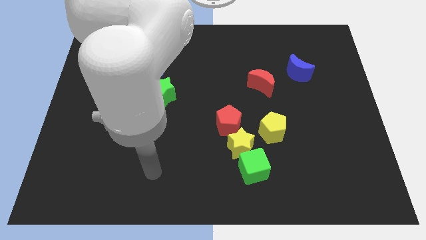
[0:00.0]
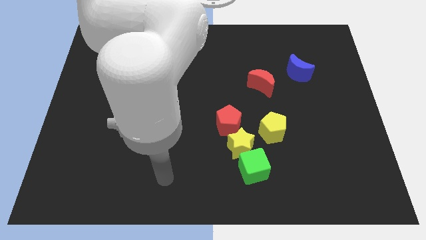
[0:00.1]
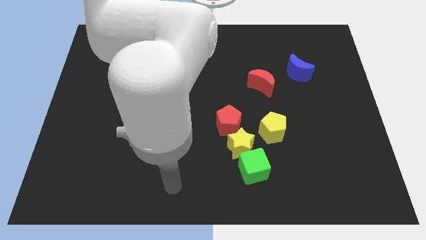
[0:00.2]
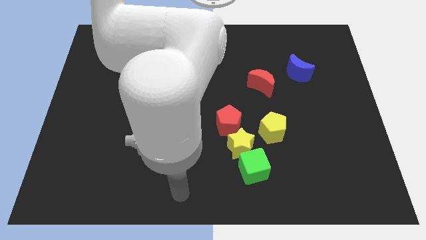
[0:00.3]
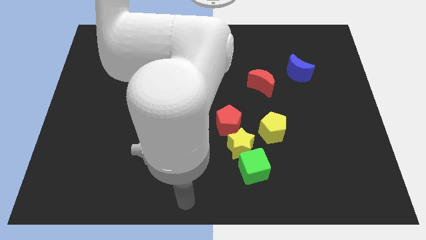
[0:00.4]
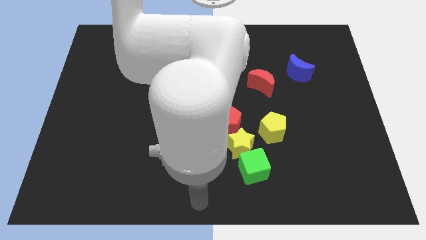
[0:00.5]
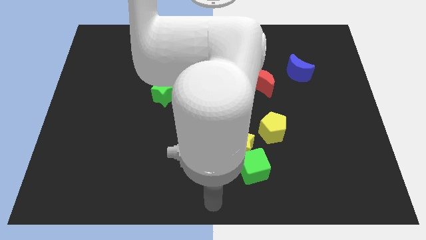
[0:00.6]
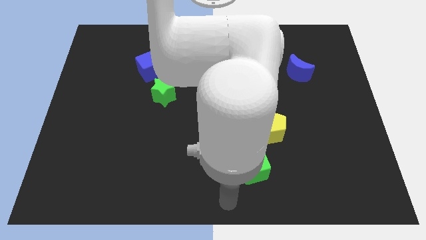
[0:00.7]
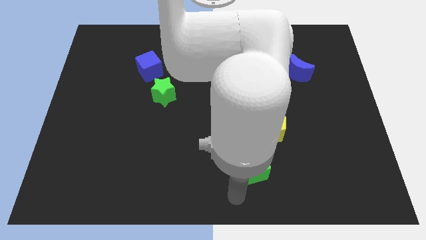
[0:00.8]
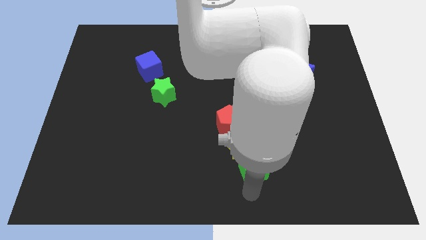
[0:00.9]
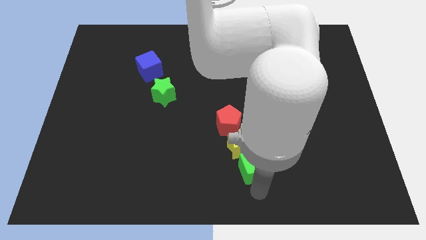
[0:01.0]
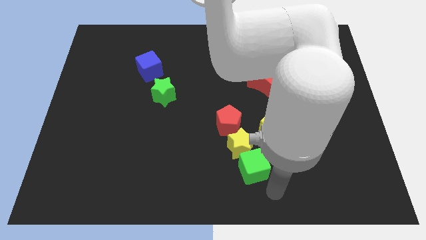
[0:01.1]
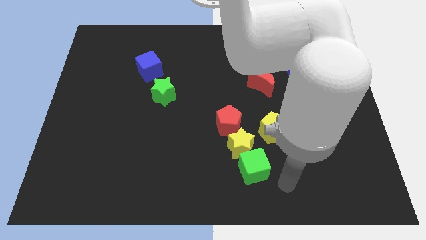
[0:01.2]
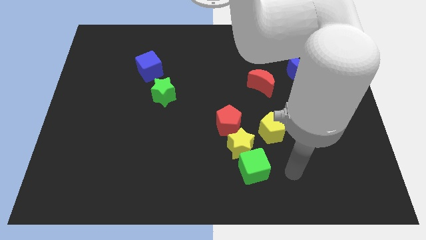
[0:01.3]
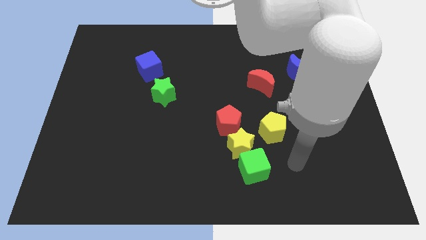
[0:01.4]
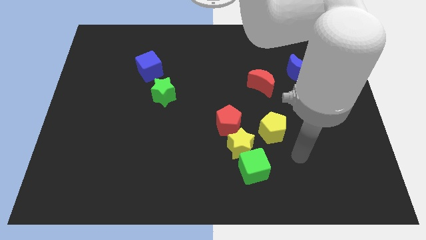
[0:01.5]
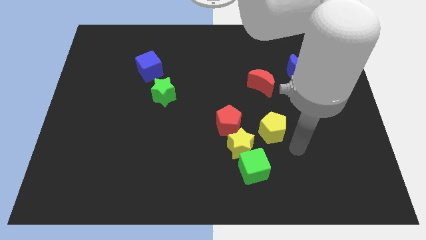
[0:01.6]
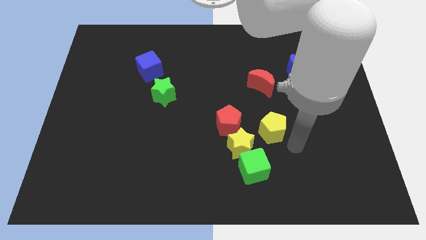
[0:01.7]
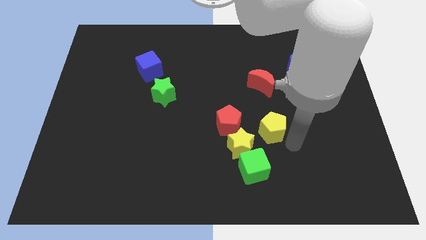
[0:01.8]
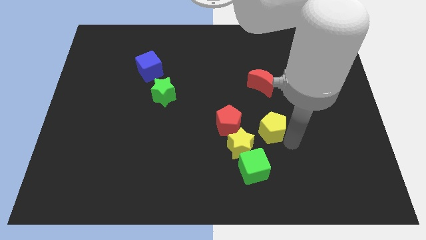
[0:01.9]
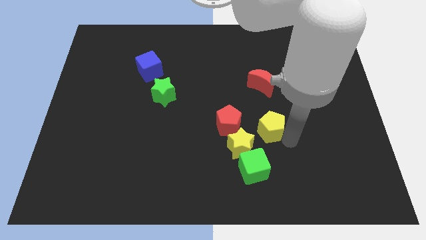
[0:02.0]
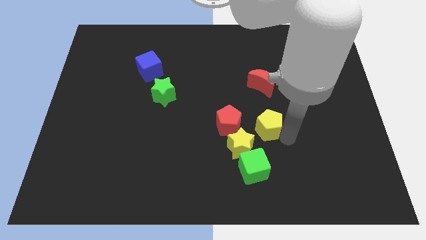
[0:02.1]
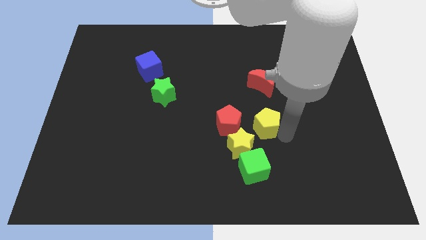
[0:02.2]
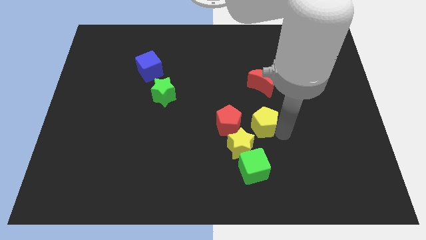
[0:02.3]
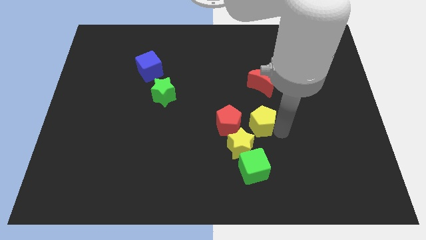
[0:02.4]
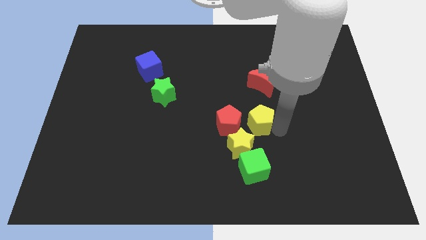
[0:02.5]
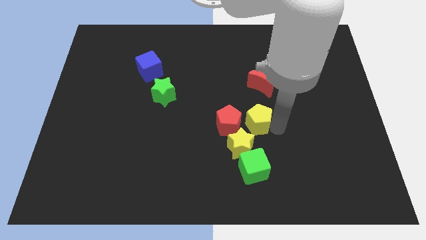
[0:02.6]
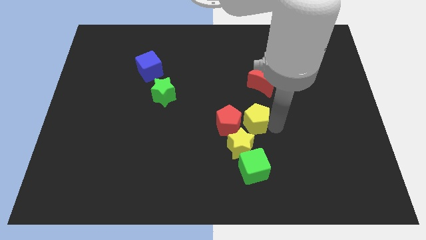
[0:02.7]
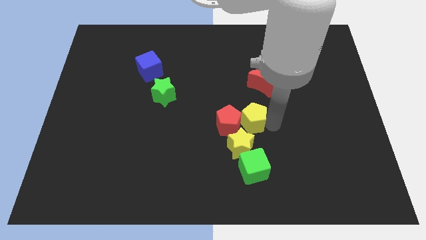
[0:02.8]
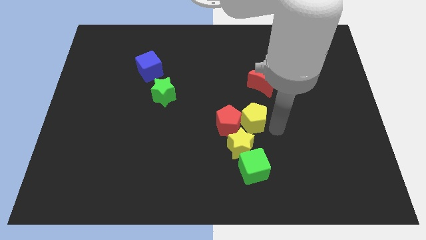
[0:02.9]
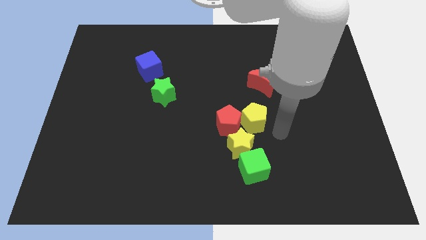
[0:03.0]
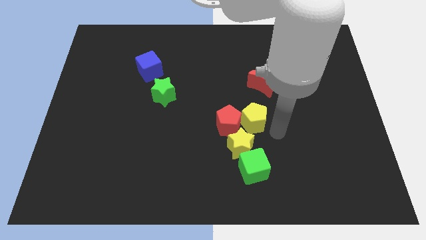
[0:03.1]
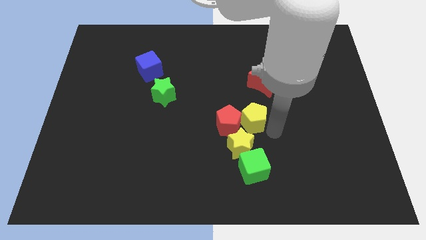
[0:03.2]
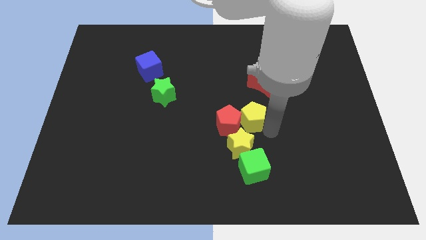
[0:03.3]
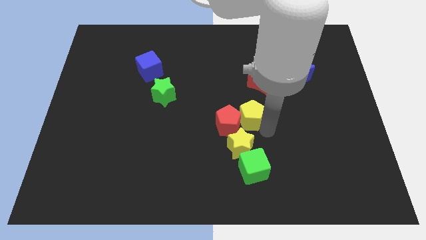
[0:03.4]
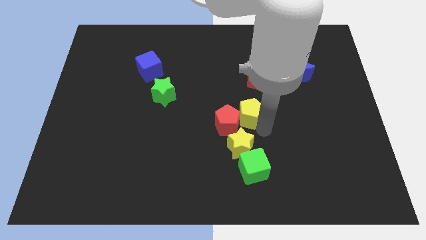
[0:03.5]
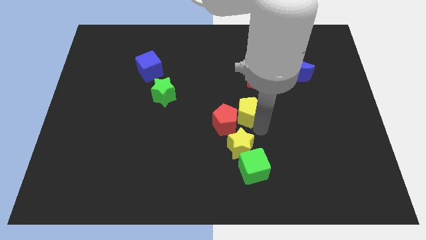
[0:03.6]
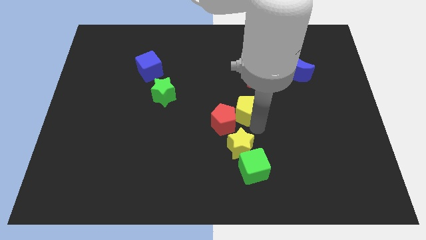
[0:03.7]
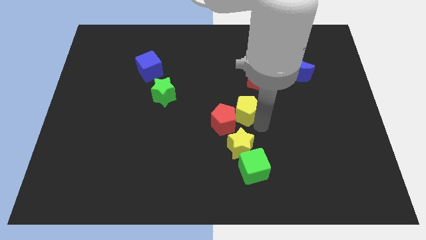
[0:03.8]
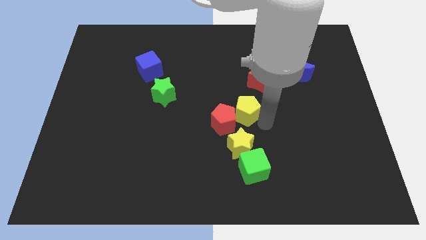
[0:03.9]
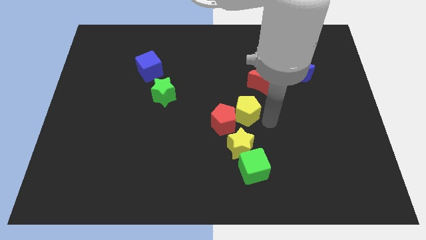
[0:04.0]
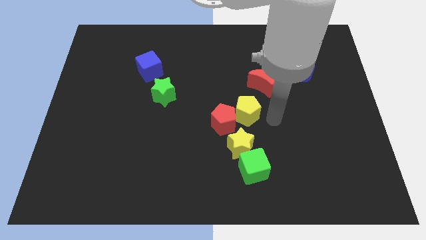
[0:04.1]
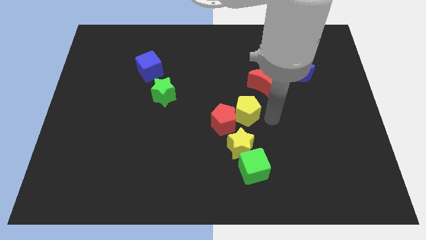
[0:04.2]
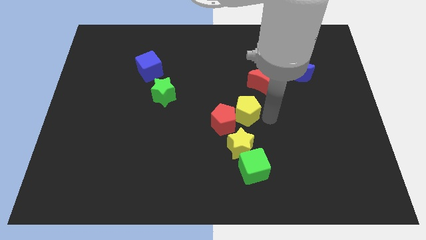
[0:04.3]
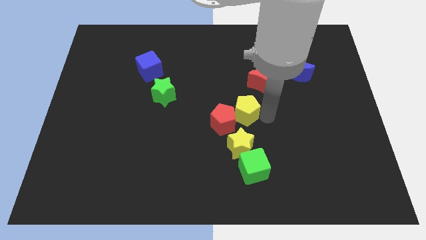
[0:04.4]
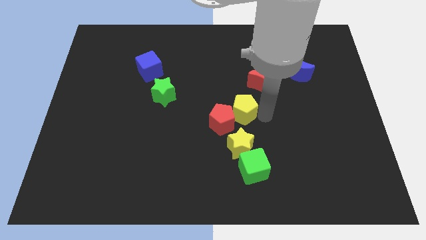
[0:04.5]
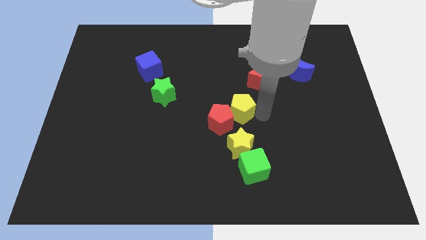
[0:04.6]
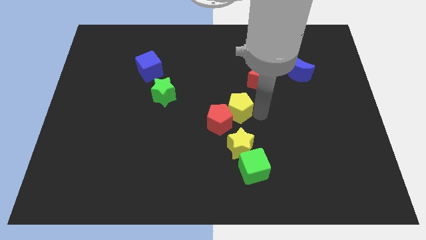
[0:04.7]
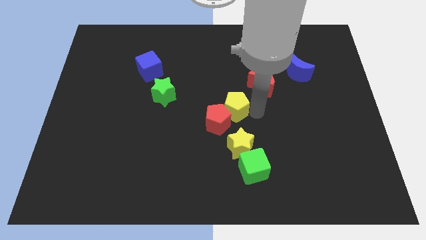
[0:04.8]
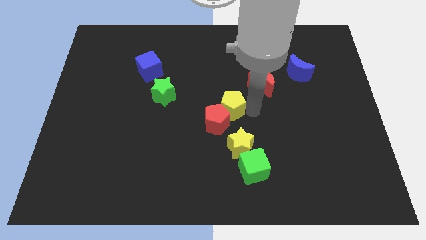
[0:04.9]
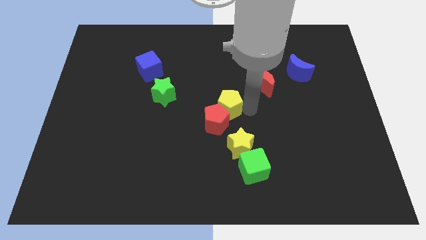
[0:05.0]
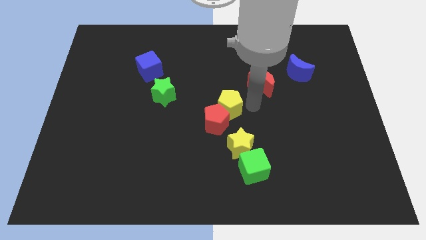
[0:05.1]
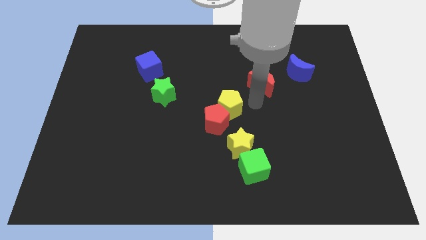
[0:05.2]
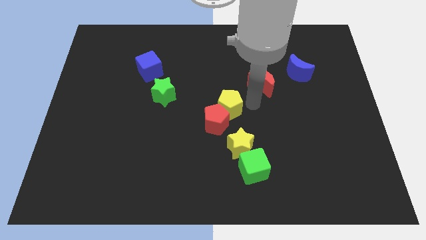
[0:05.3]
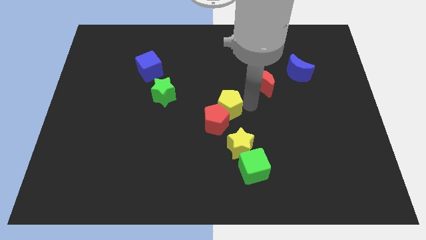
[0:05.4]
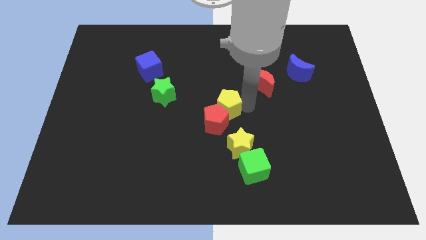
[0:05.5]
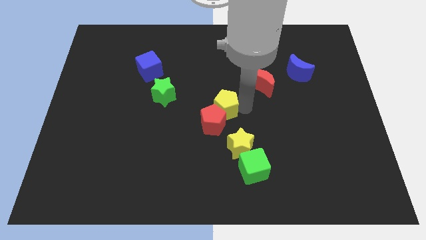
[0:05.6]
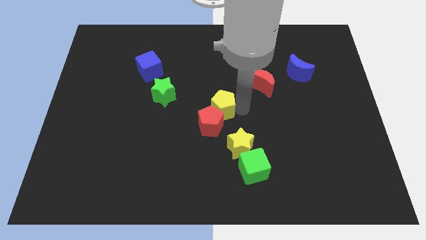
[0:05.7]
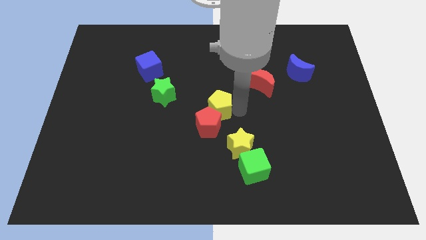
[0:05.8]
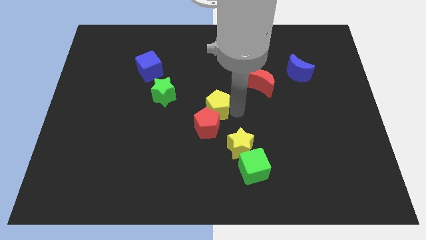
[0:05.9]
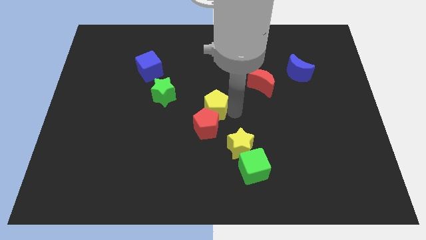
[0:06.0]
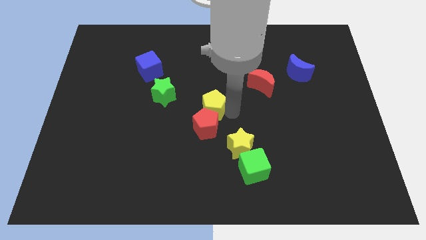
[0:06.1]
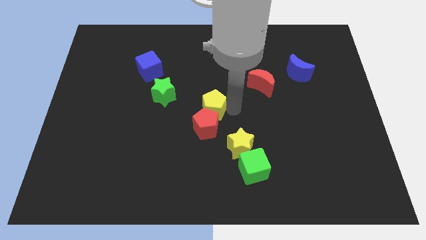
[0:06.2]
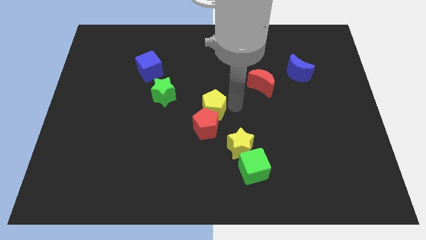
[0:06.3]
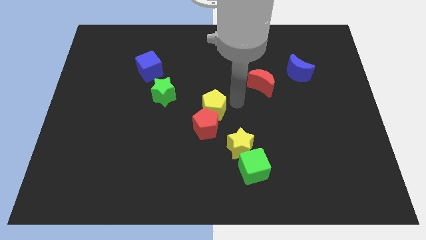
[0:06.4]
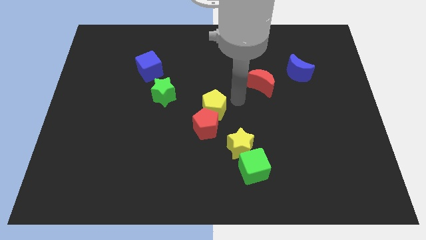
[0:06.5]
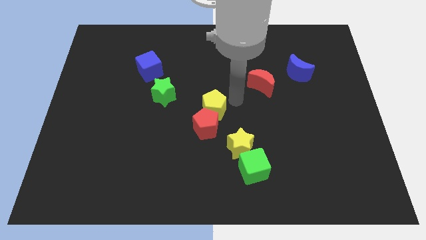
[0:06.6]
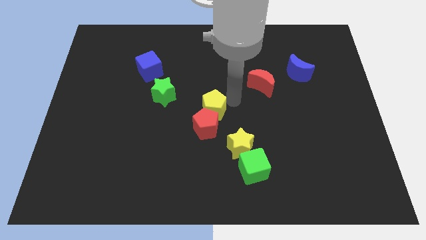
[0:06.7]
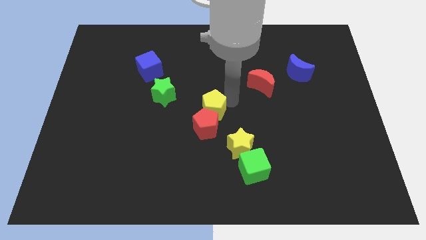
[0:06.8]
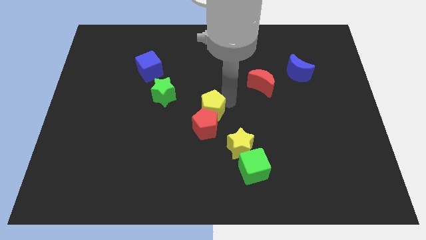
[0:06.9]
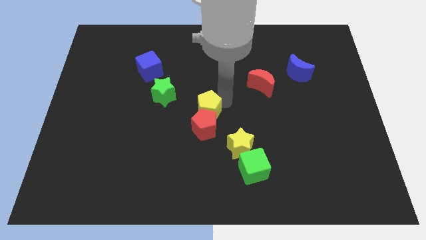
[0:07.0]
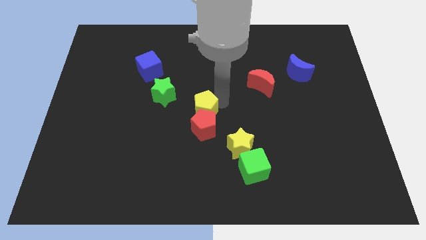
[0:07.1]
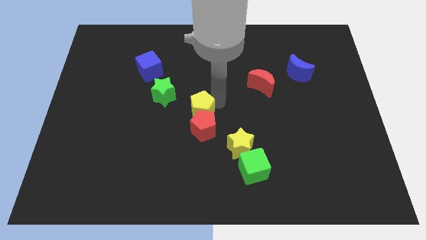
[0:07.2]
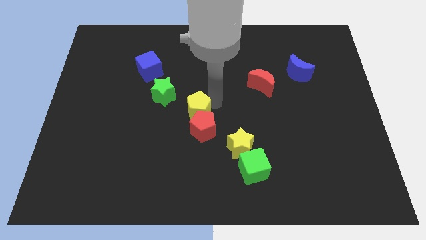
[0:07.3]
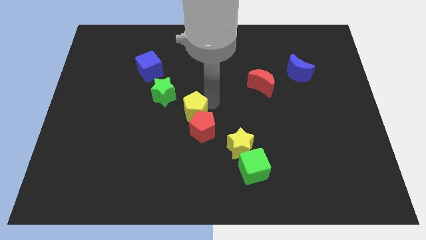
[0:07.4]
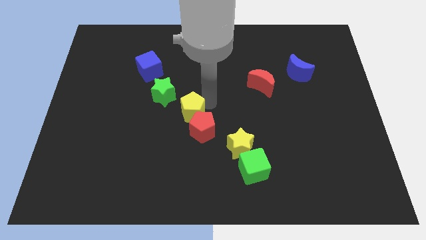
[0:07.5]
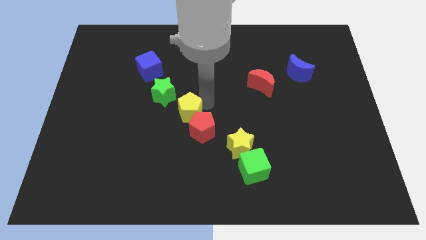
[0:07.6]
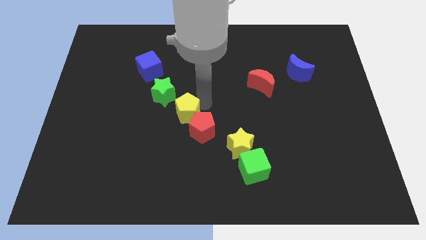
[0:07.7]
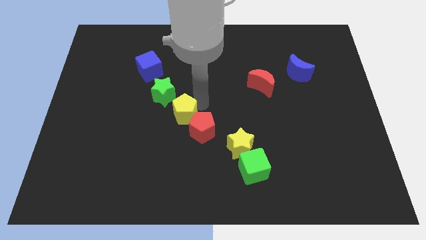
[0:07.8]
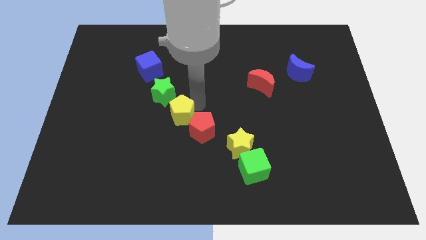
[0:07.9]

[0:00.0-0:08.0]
push the yellow pentagon to the left
